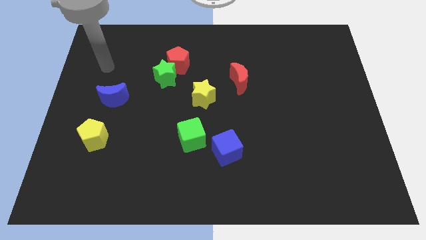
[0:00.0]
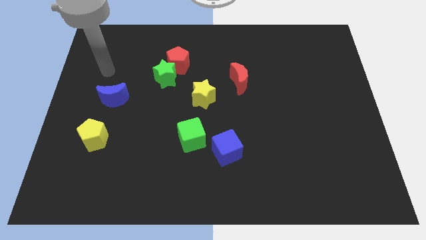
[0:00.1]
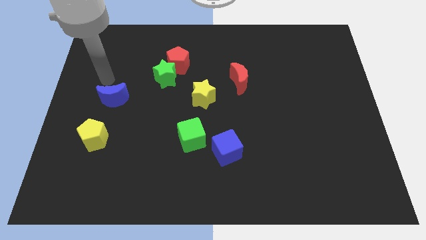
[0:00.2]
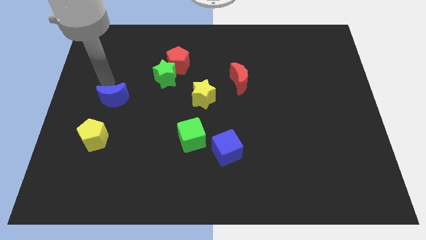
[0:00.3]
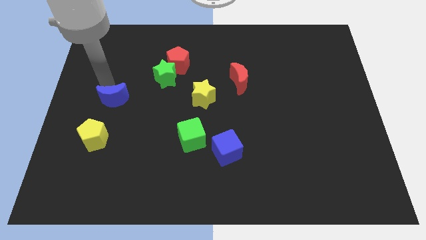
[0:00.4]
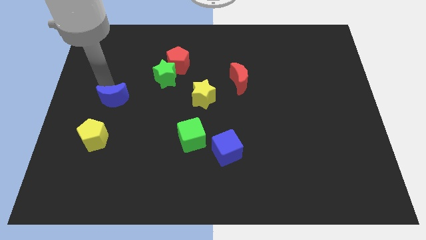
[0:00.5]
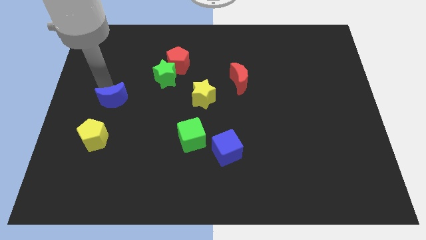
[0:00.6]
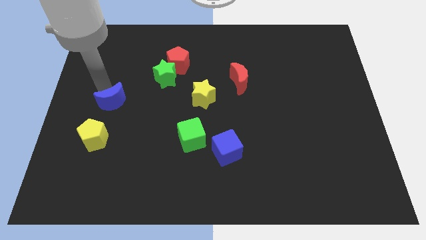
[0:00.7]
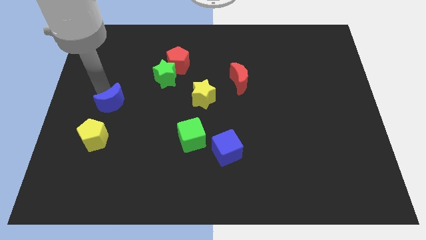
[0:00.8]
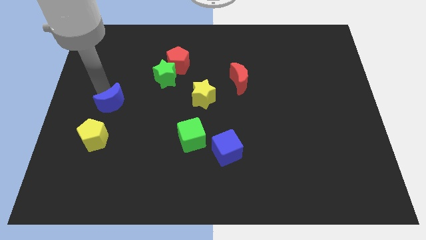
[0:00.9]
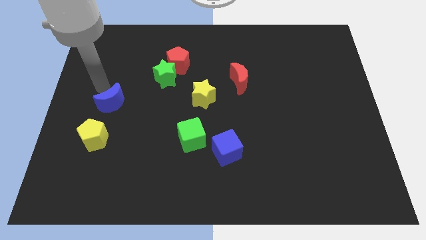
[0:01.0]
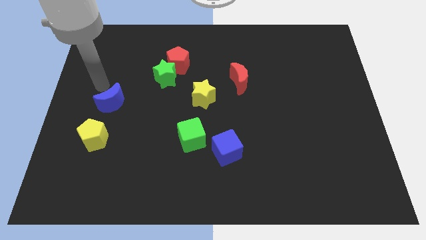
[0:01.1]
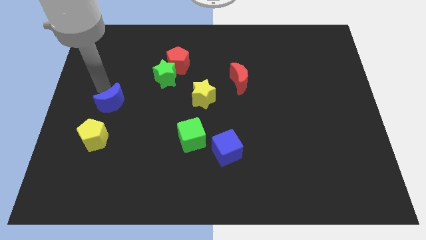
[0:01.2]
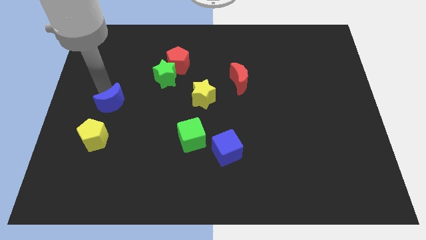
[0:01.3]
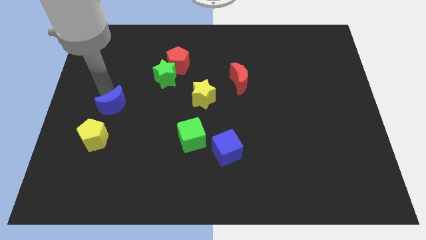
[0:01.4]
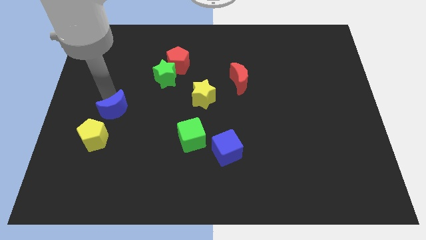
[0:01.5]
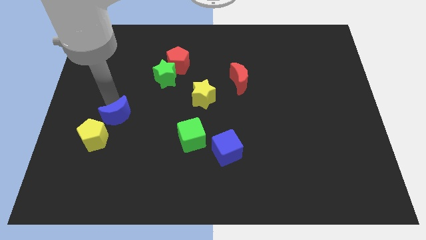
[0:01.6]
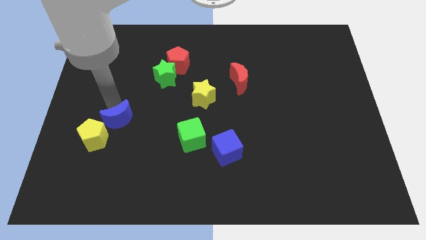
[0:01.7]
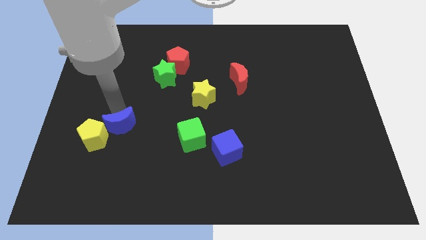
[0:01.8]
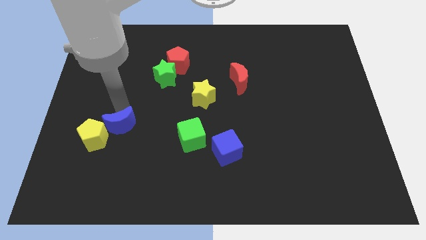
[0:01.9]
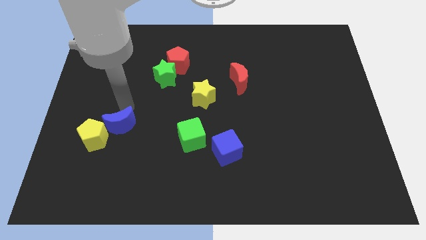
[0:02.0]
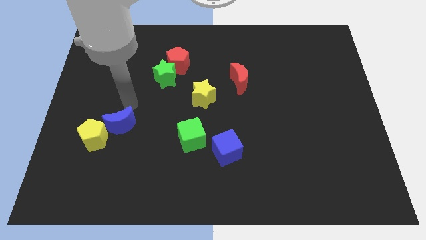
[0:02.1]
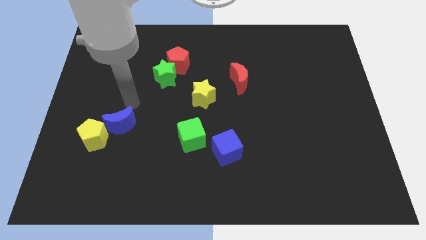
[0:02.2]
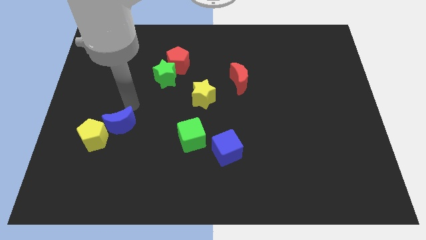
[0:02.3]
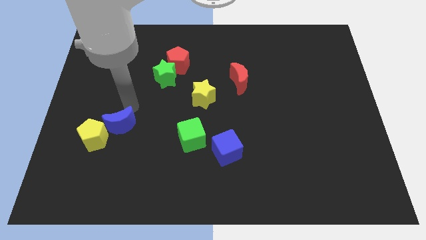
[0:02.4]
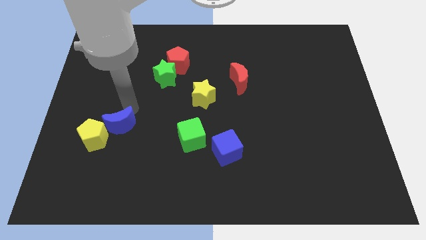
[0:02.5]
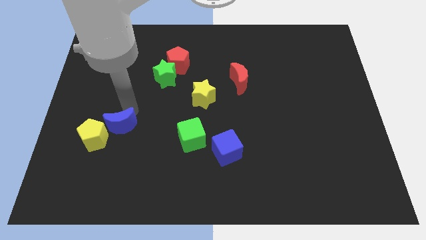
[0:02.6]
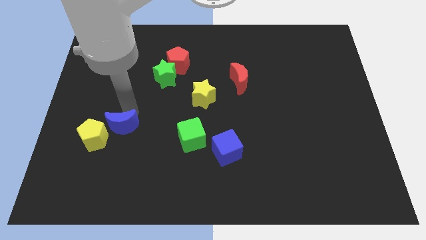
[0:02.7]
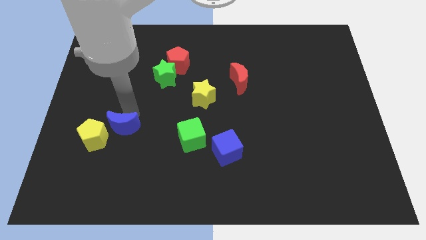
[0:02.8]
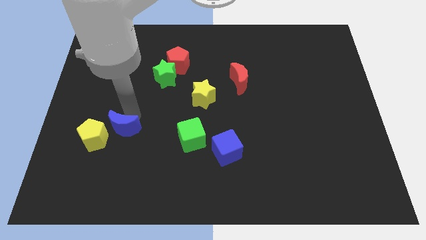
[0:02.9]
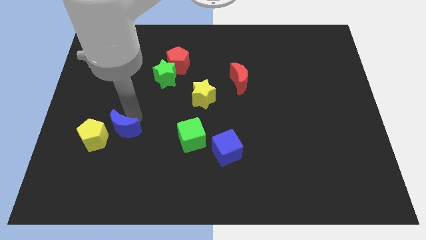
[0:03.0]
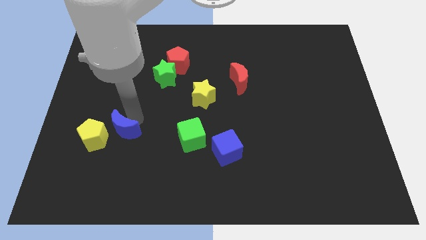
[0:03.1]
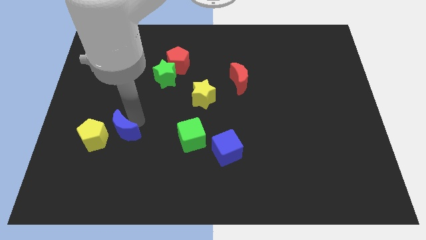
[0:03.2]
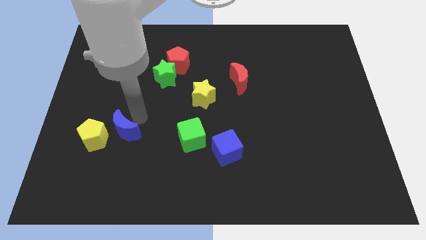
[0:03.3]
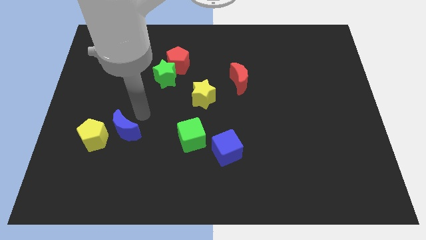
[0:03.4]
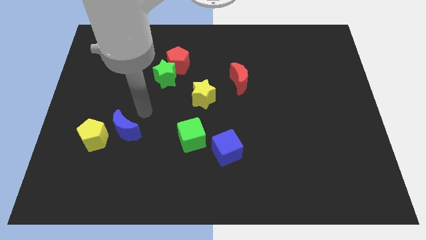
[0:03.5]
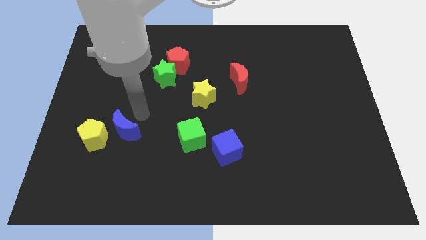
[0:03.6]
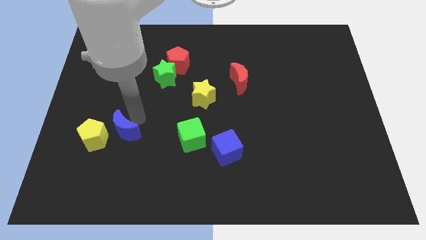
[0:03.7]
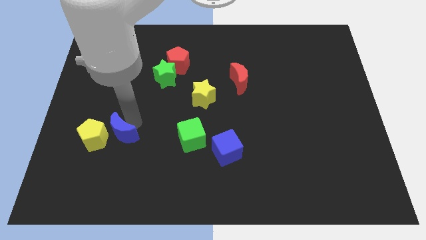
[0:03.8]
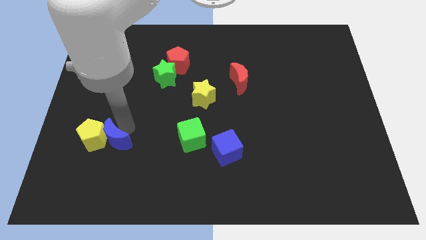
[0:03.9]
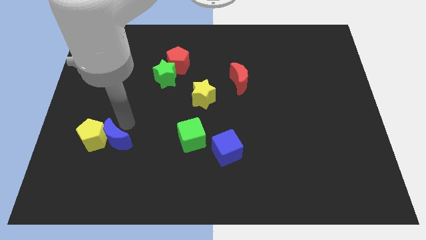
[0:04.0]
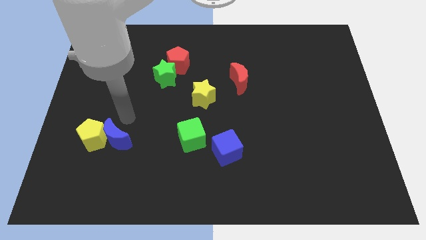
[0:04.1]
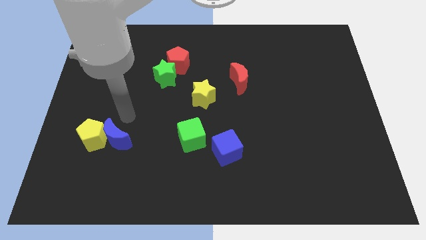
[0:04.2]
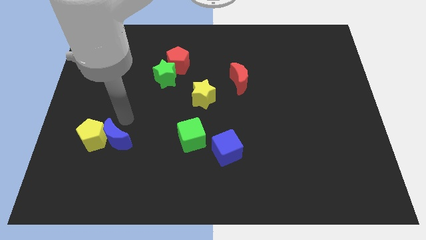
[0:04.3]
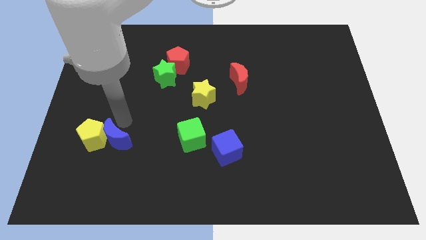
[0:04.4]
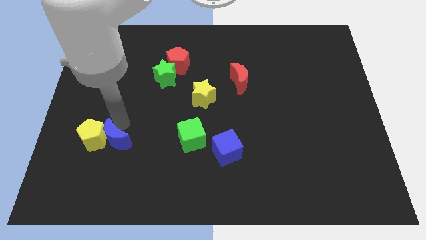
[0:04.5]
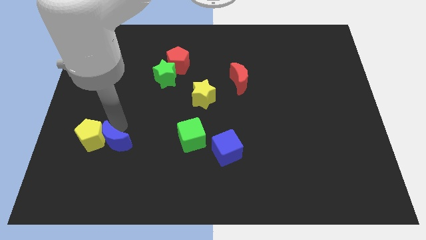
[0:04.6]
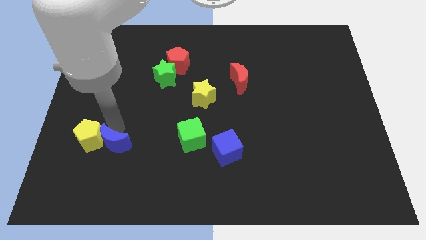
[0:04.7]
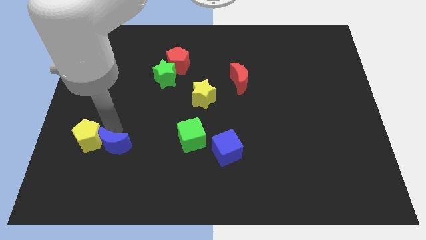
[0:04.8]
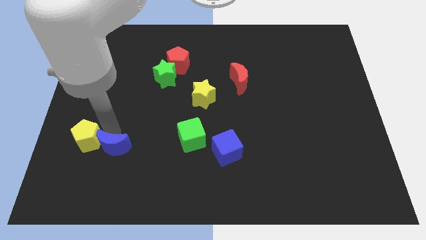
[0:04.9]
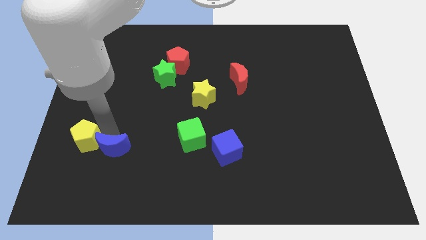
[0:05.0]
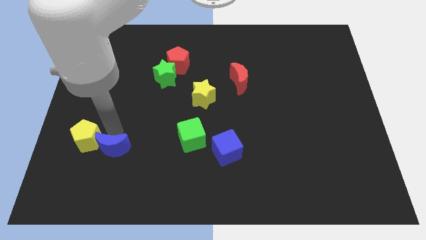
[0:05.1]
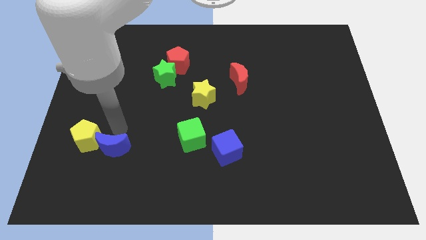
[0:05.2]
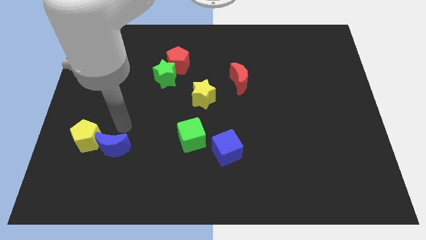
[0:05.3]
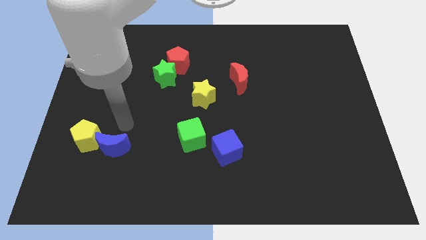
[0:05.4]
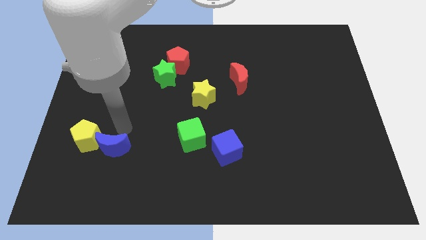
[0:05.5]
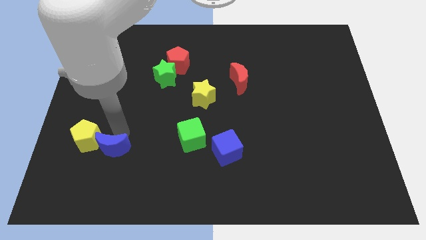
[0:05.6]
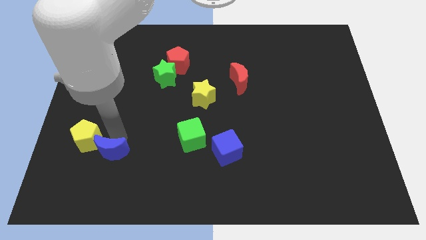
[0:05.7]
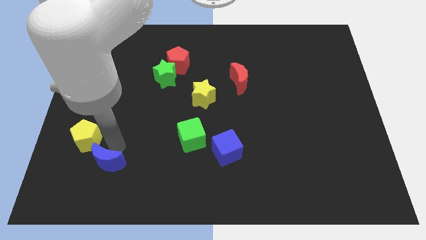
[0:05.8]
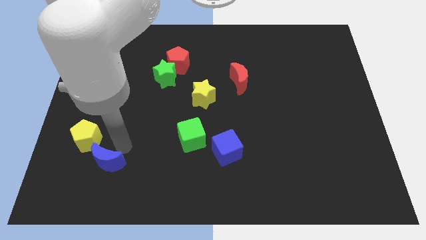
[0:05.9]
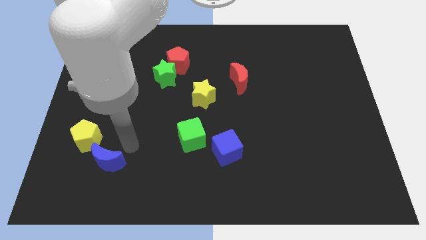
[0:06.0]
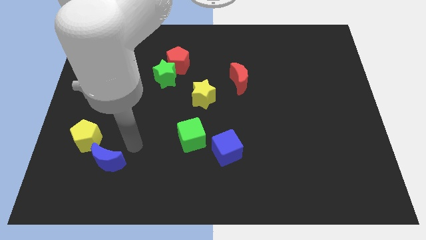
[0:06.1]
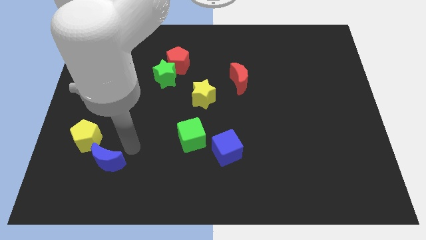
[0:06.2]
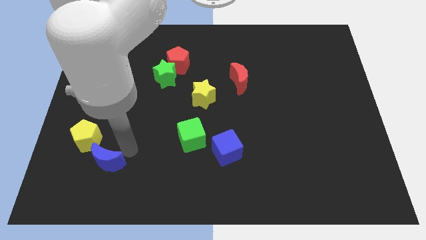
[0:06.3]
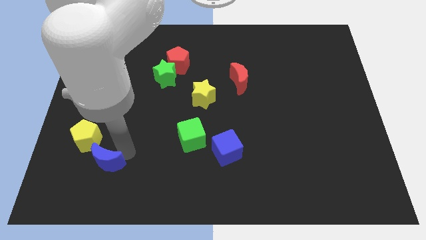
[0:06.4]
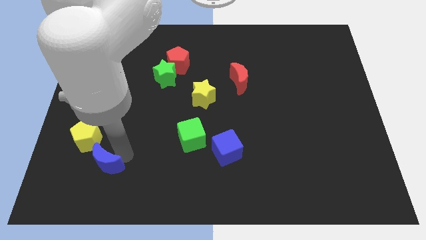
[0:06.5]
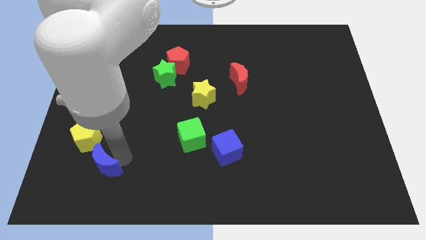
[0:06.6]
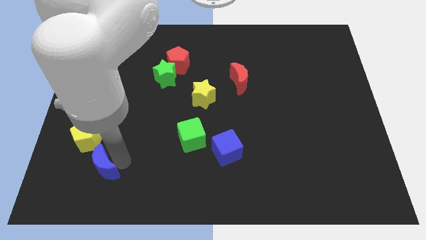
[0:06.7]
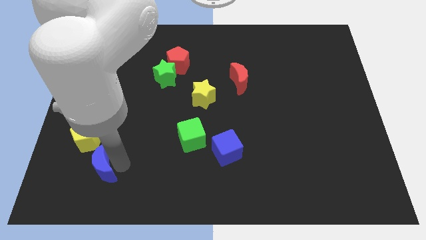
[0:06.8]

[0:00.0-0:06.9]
slide the blue moon to the bottom of the yellow pentagon

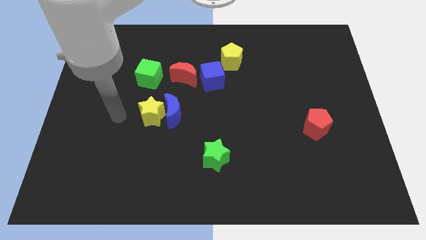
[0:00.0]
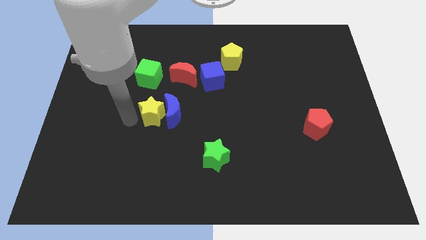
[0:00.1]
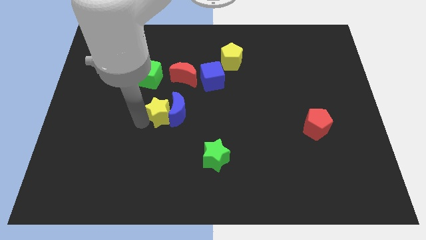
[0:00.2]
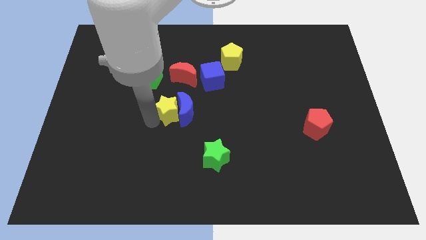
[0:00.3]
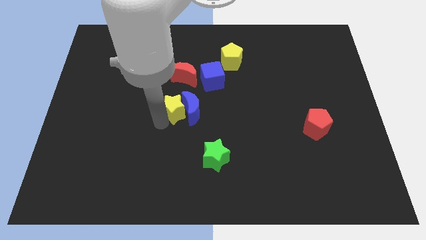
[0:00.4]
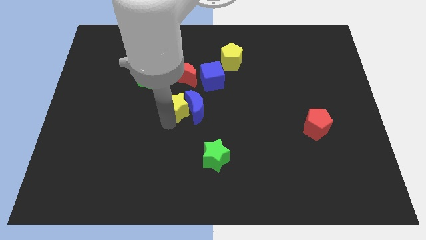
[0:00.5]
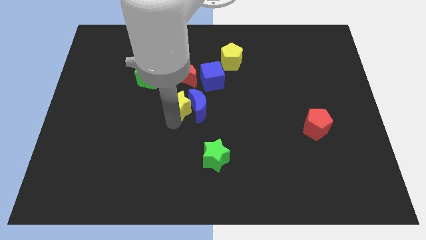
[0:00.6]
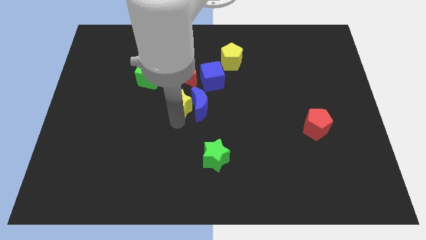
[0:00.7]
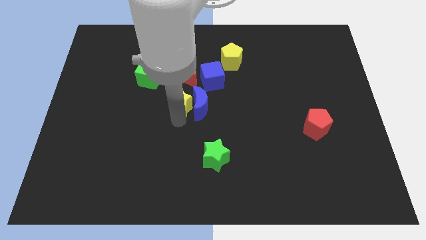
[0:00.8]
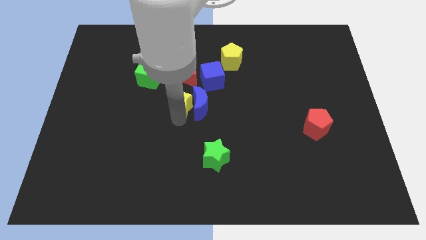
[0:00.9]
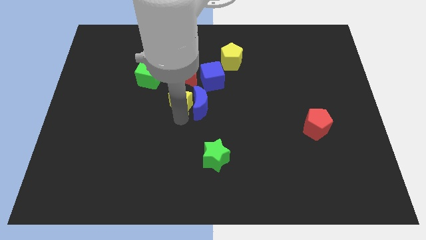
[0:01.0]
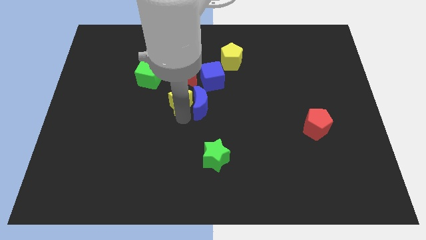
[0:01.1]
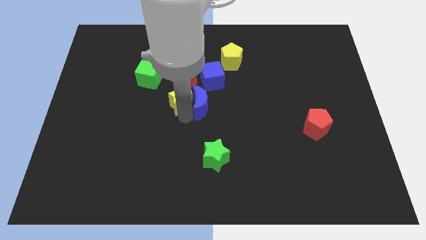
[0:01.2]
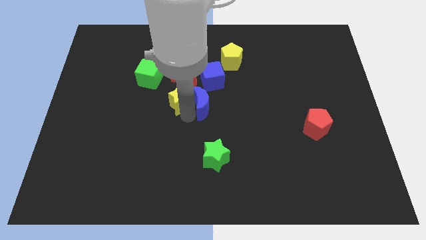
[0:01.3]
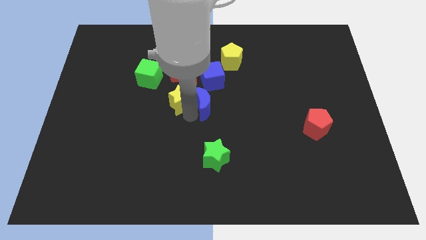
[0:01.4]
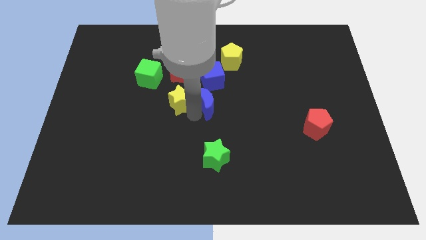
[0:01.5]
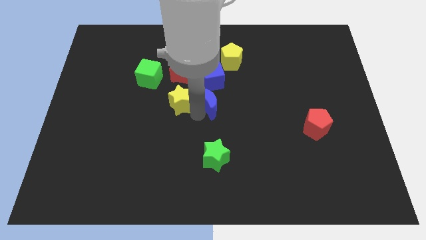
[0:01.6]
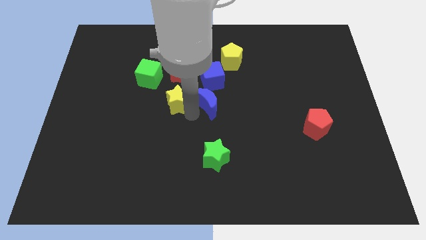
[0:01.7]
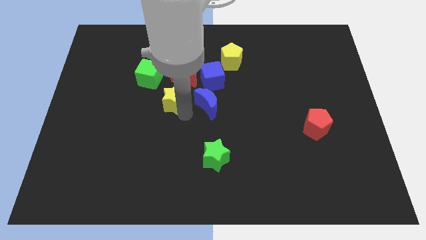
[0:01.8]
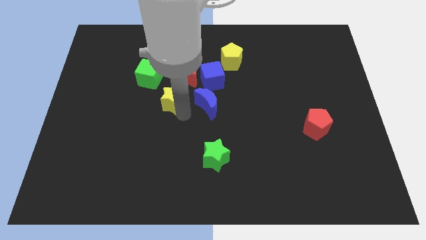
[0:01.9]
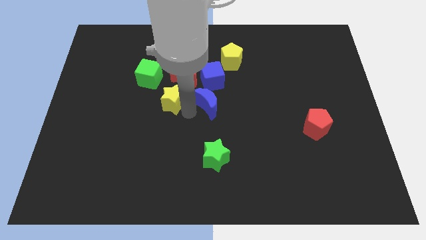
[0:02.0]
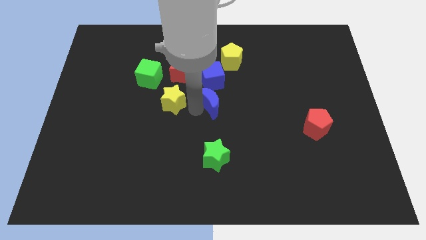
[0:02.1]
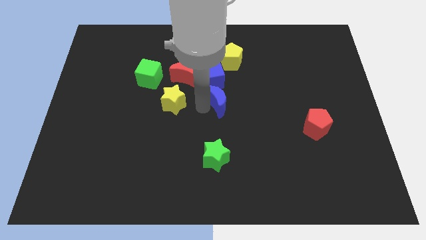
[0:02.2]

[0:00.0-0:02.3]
put the blue moon to the bottom right of the blue cube
